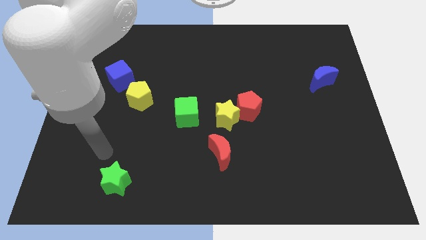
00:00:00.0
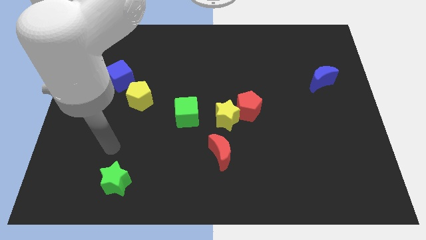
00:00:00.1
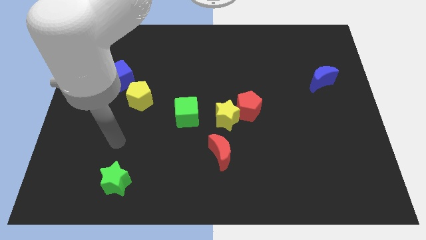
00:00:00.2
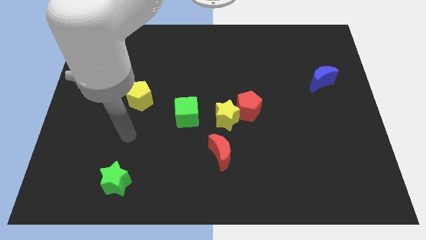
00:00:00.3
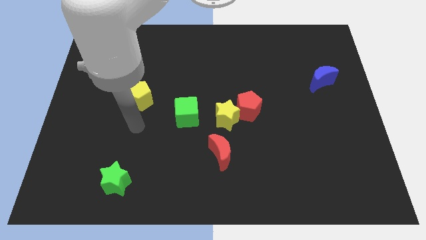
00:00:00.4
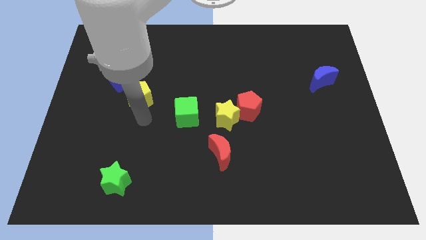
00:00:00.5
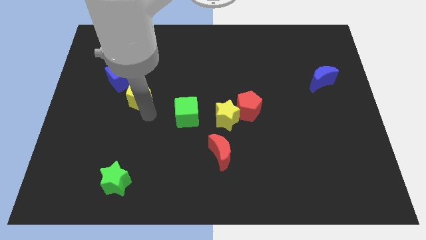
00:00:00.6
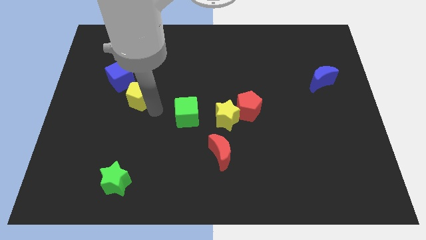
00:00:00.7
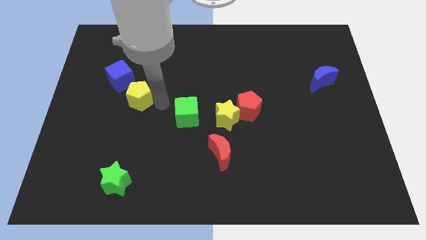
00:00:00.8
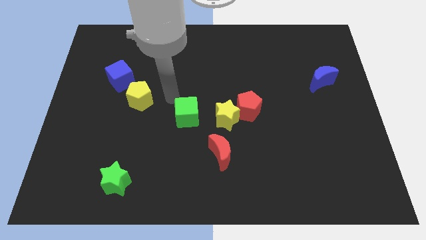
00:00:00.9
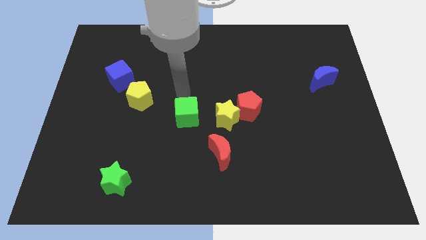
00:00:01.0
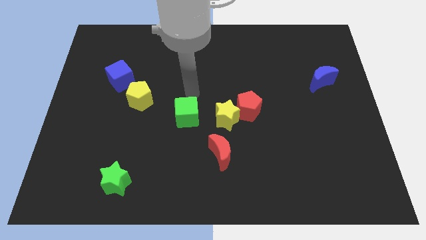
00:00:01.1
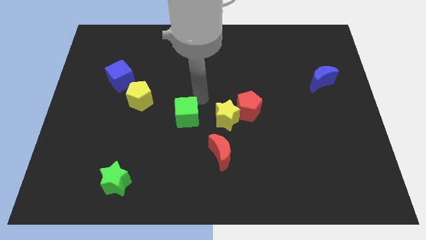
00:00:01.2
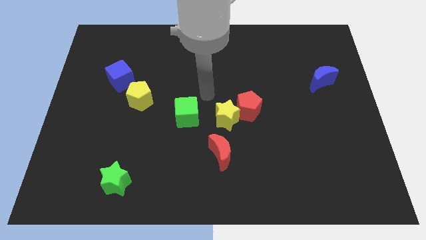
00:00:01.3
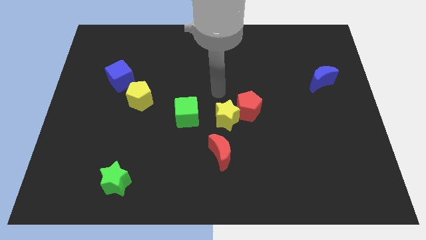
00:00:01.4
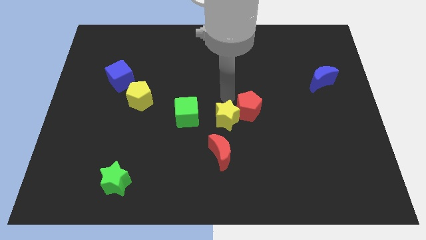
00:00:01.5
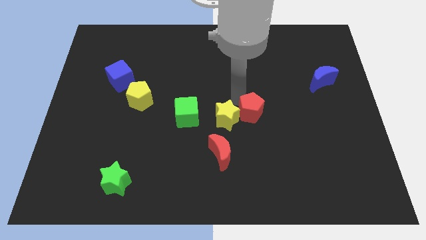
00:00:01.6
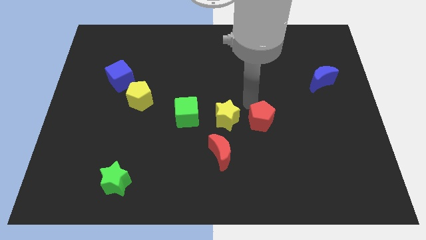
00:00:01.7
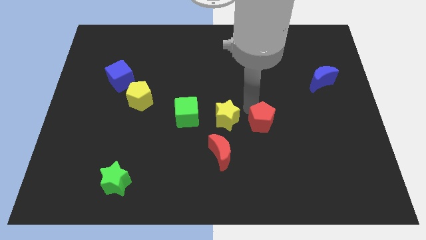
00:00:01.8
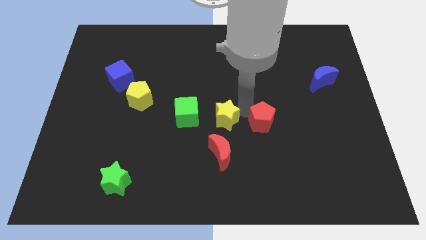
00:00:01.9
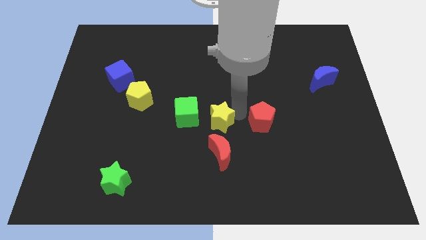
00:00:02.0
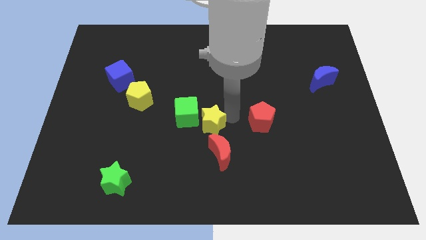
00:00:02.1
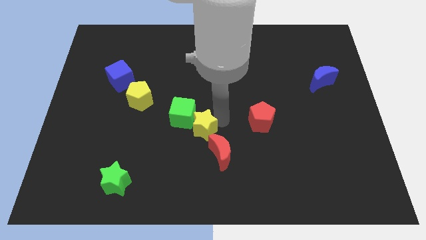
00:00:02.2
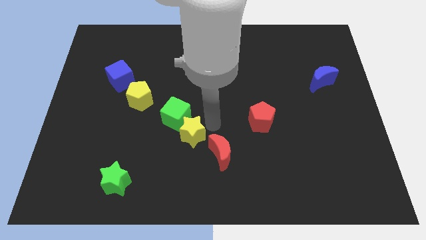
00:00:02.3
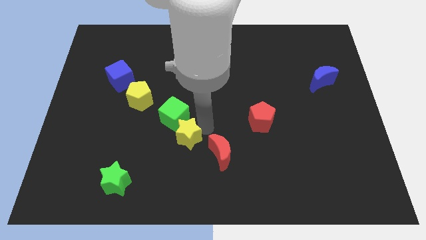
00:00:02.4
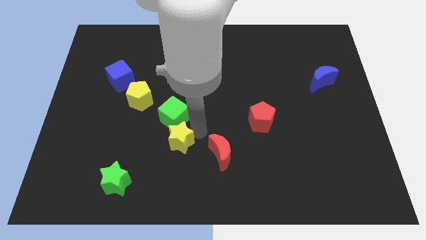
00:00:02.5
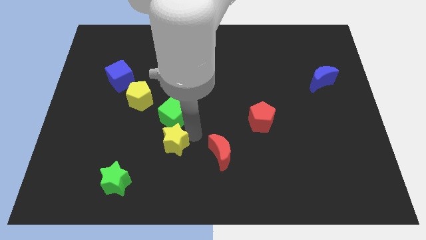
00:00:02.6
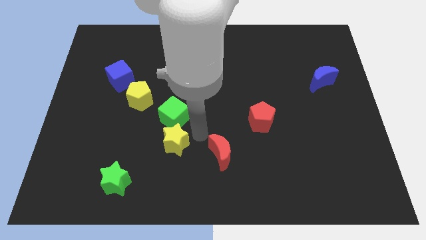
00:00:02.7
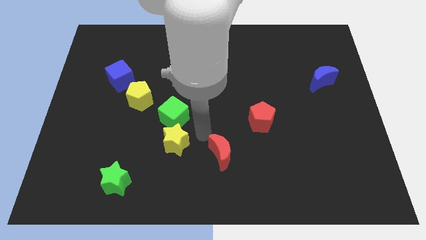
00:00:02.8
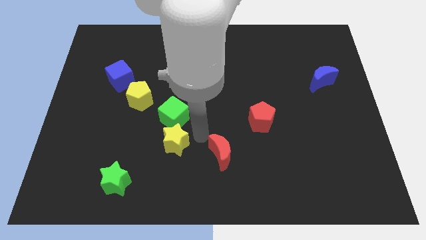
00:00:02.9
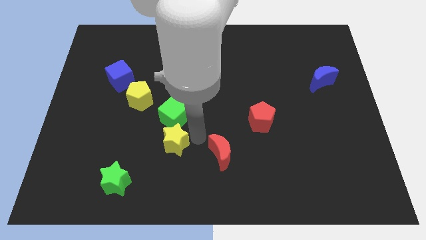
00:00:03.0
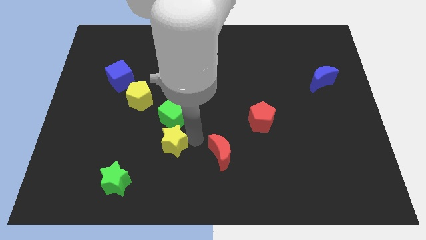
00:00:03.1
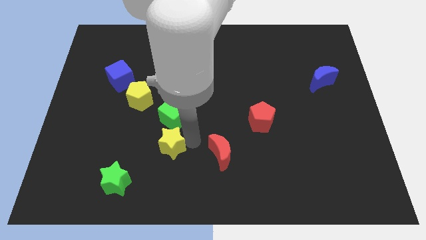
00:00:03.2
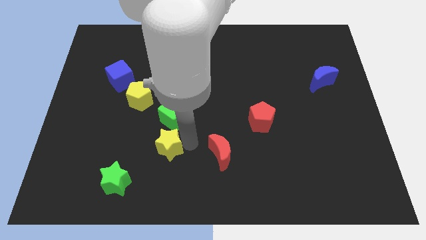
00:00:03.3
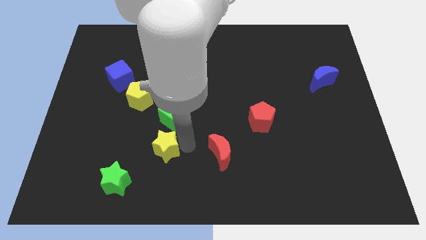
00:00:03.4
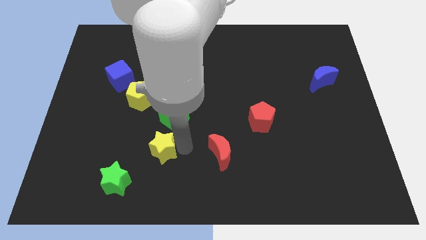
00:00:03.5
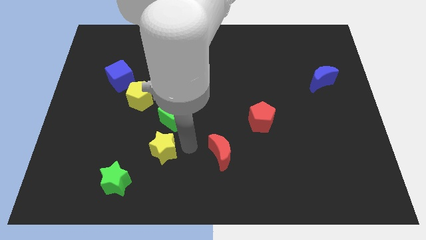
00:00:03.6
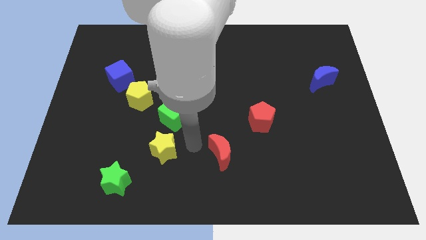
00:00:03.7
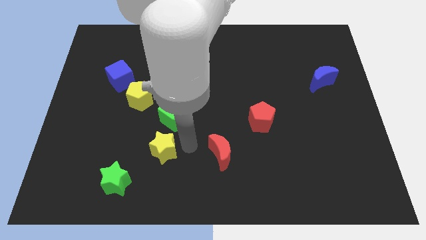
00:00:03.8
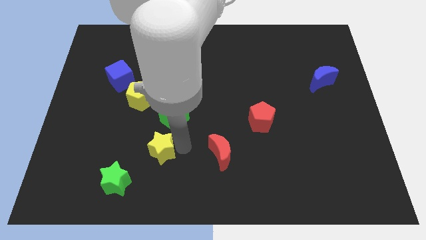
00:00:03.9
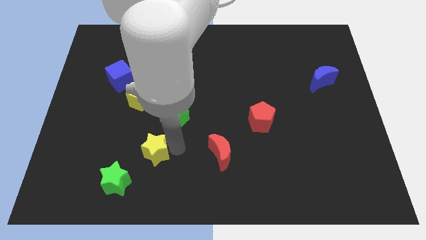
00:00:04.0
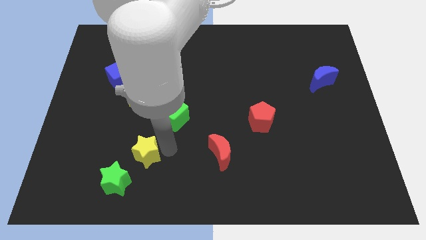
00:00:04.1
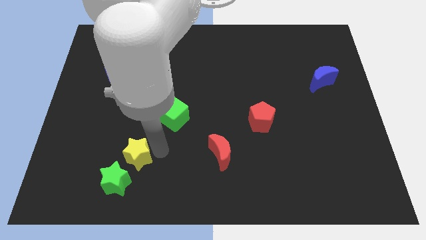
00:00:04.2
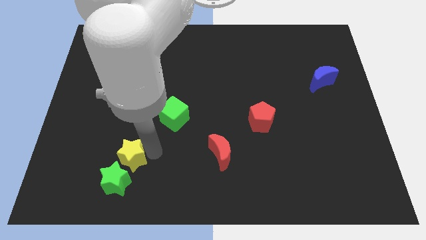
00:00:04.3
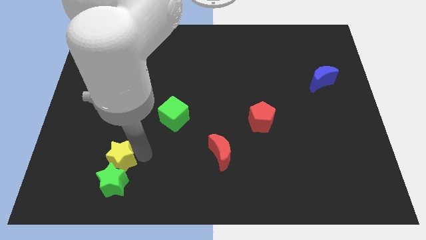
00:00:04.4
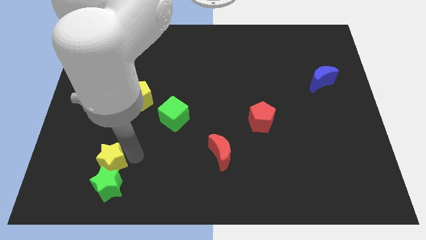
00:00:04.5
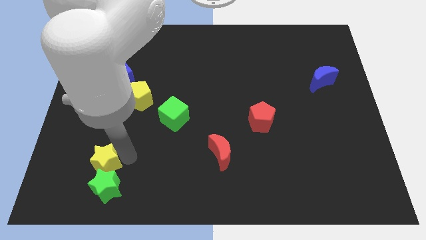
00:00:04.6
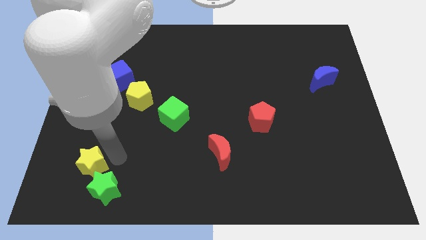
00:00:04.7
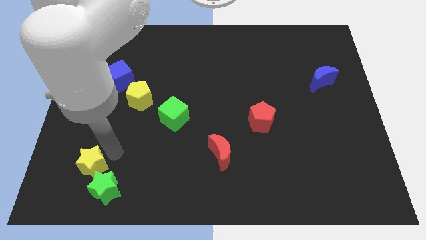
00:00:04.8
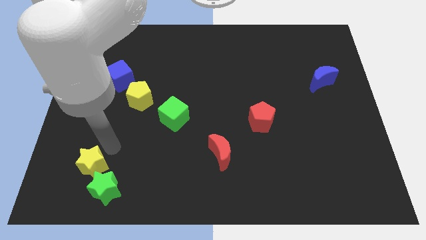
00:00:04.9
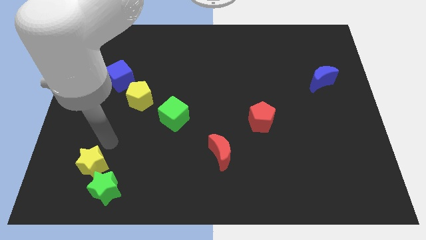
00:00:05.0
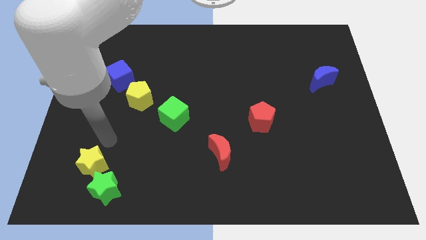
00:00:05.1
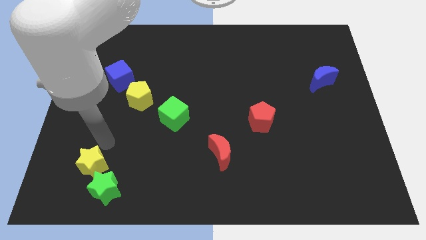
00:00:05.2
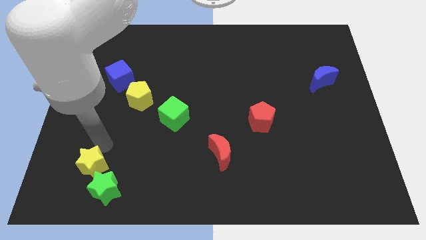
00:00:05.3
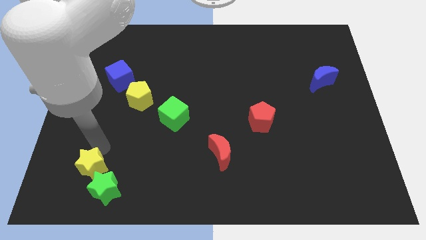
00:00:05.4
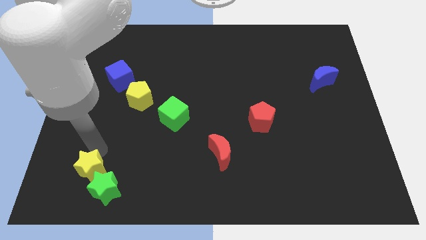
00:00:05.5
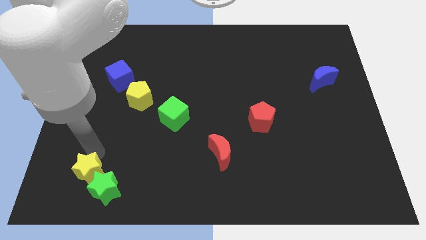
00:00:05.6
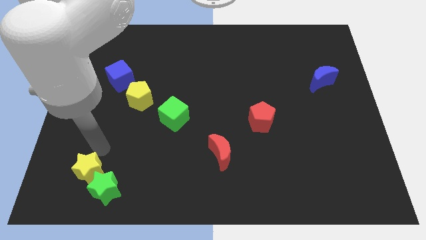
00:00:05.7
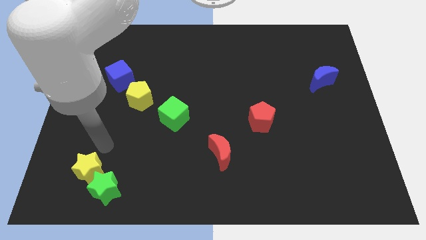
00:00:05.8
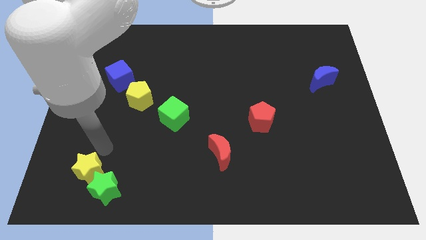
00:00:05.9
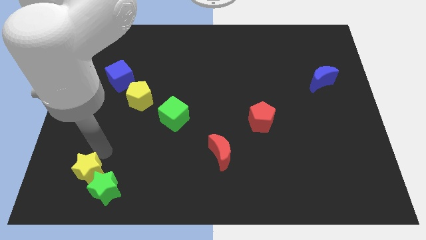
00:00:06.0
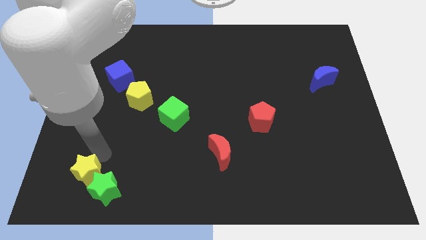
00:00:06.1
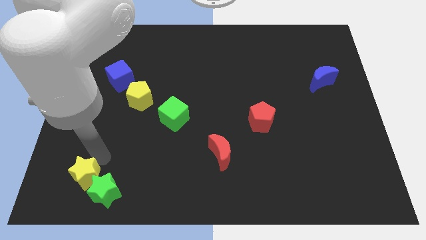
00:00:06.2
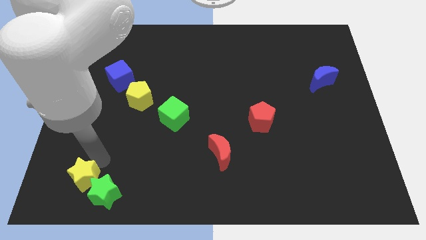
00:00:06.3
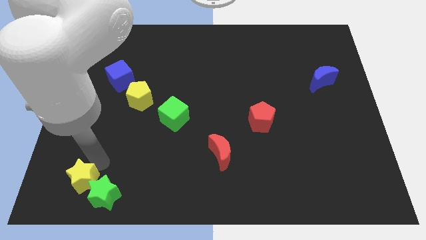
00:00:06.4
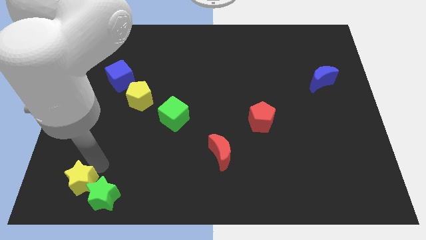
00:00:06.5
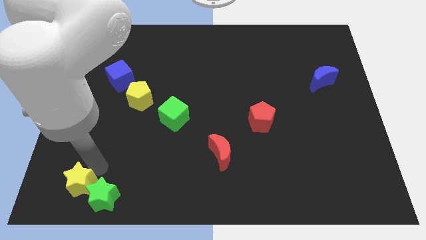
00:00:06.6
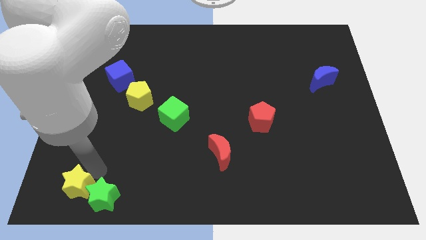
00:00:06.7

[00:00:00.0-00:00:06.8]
push the yellow star to the bottom left corner

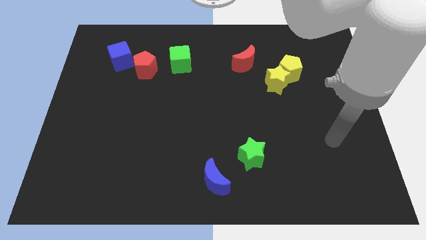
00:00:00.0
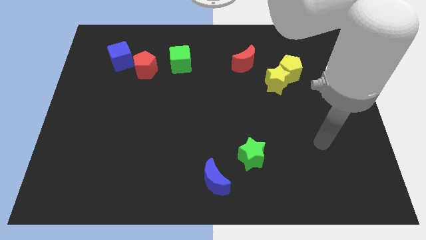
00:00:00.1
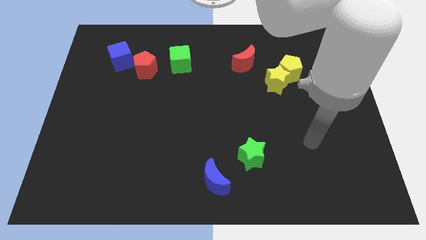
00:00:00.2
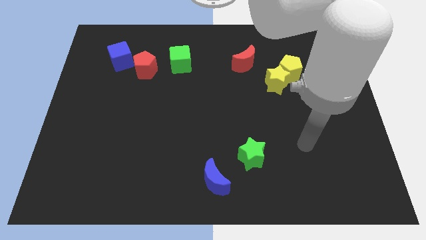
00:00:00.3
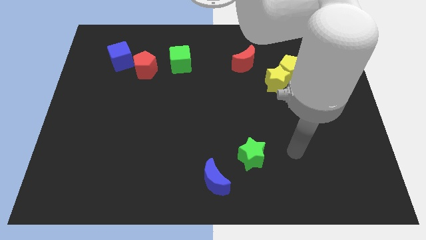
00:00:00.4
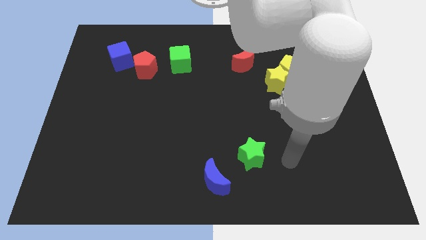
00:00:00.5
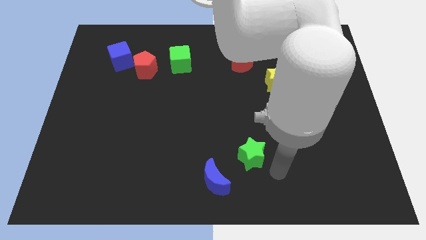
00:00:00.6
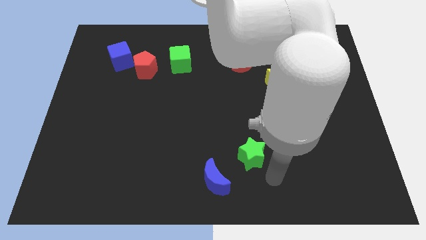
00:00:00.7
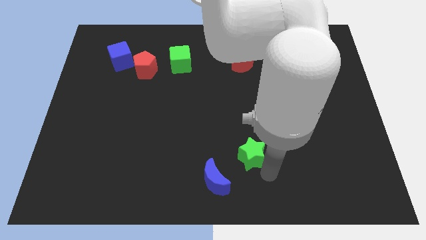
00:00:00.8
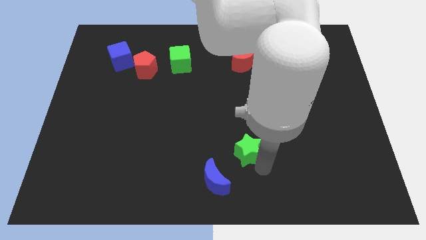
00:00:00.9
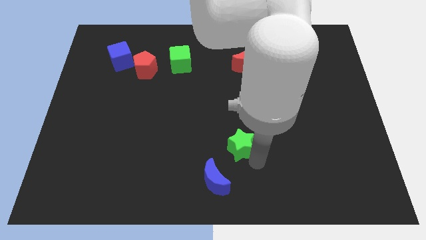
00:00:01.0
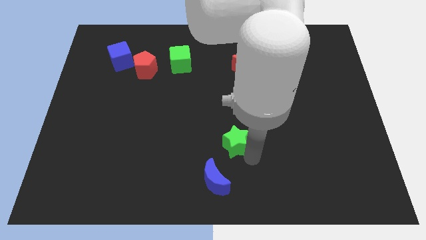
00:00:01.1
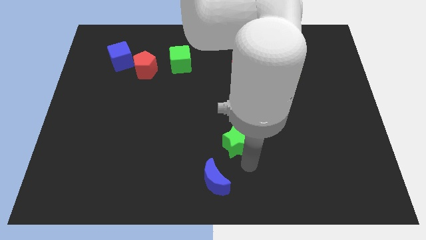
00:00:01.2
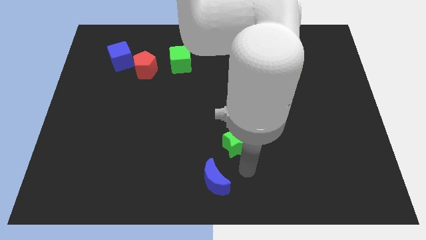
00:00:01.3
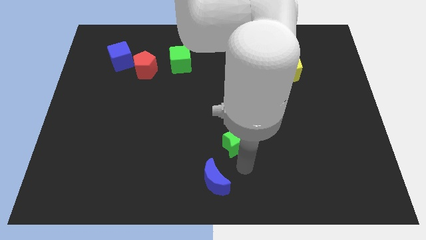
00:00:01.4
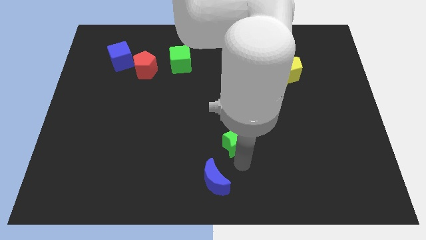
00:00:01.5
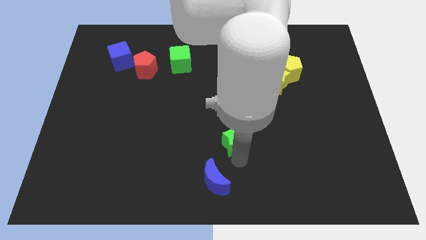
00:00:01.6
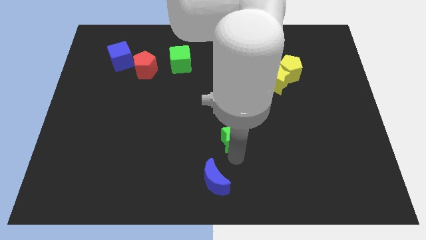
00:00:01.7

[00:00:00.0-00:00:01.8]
put the green star to the middle of the board
